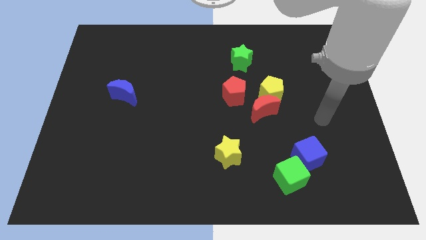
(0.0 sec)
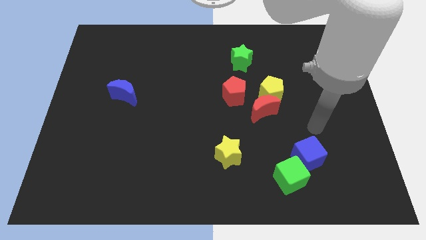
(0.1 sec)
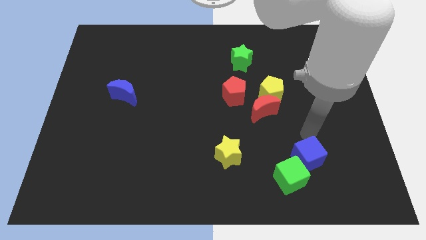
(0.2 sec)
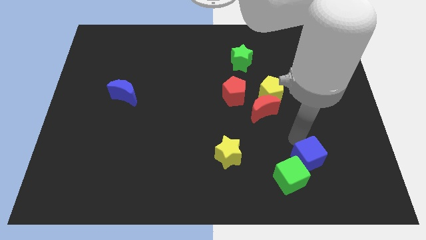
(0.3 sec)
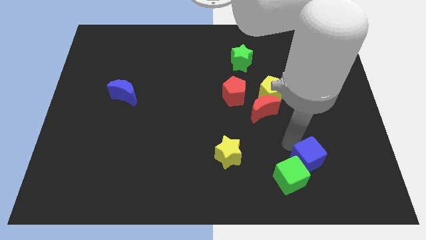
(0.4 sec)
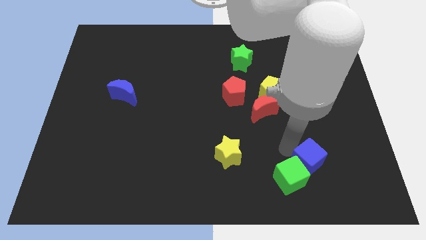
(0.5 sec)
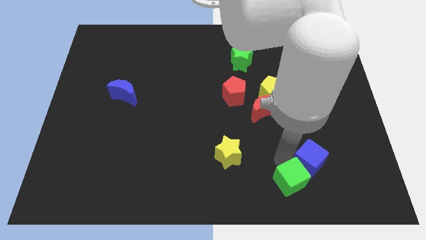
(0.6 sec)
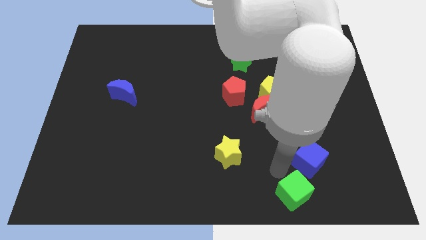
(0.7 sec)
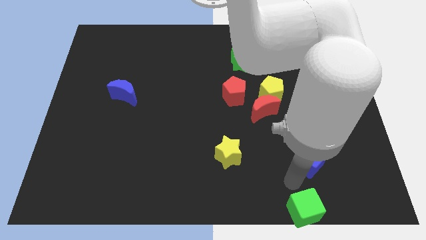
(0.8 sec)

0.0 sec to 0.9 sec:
pull the blue cube apart from the green cube

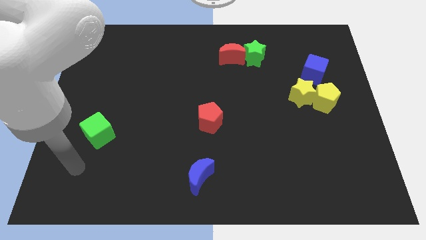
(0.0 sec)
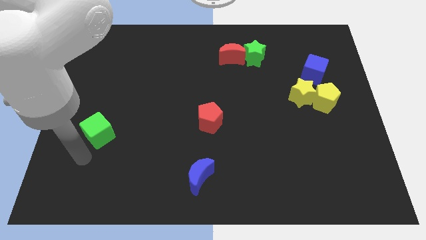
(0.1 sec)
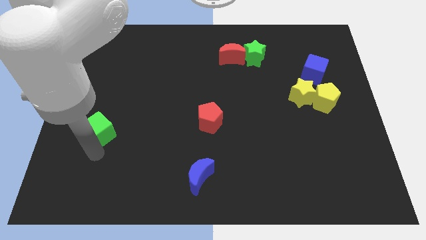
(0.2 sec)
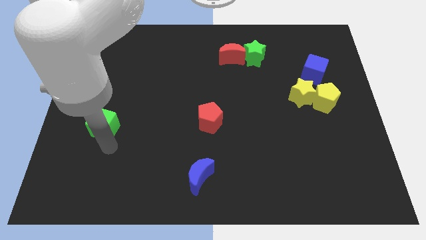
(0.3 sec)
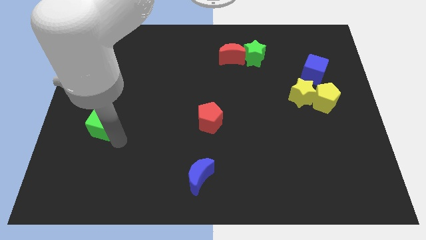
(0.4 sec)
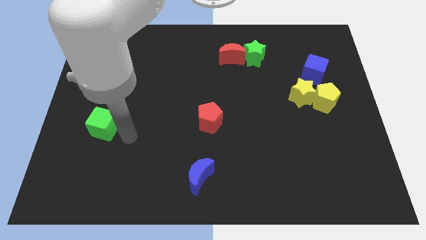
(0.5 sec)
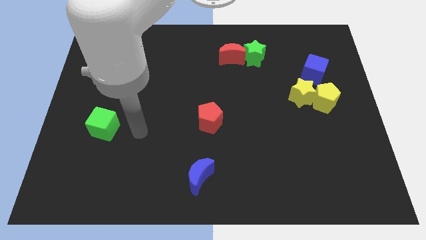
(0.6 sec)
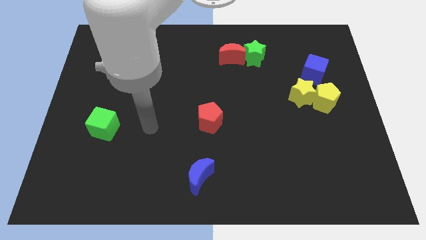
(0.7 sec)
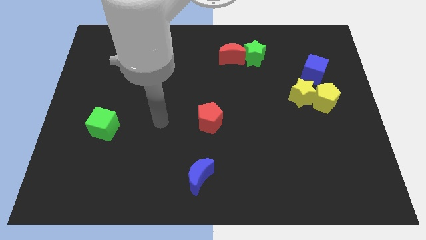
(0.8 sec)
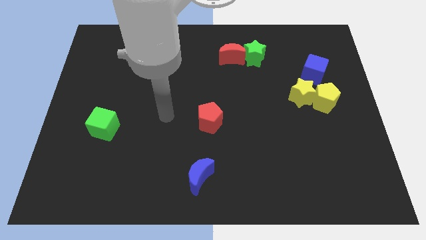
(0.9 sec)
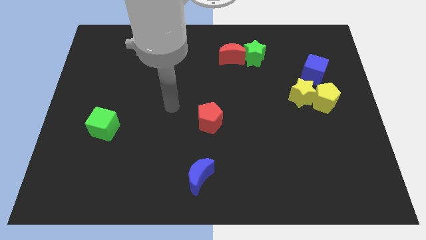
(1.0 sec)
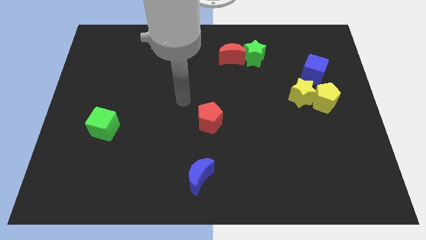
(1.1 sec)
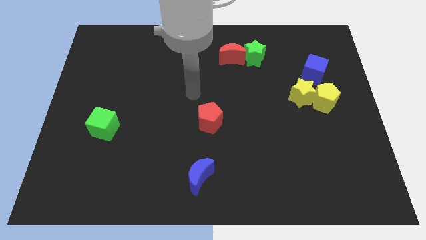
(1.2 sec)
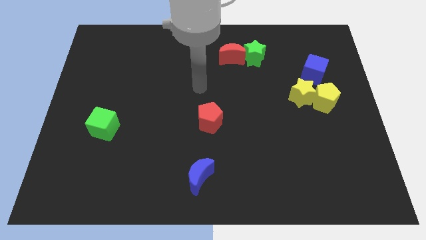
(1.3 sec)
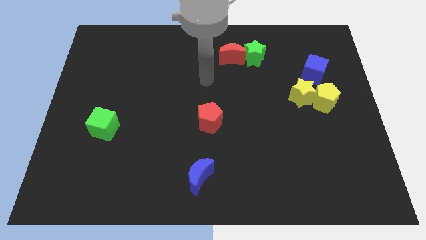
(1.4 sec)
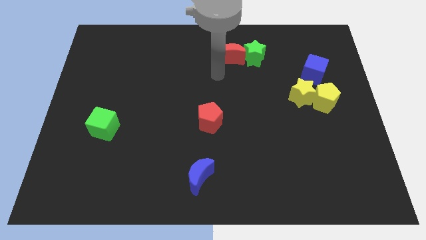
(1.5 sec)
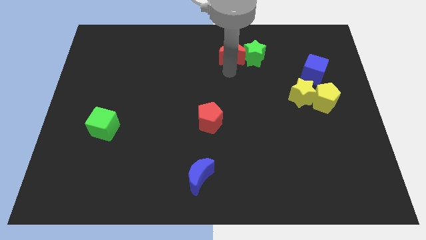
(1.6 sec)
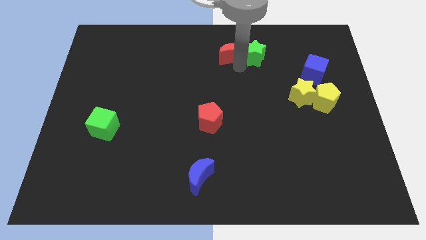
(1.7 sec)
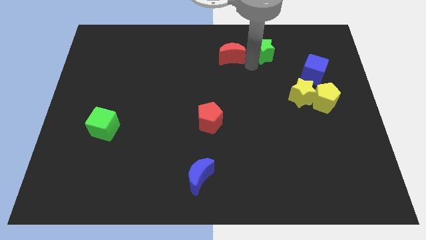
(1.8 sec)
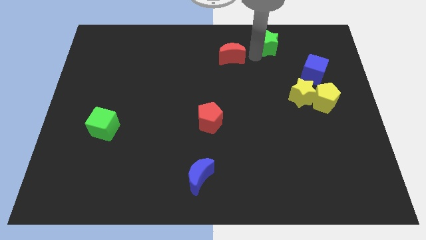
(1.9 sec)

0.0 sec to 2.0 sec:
pull the red moon apart from the green star

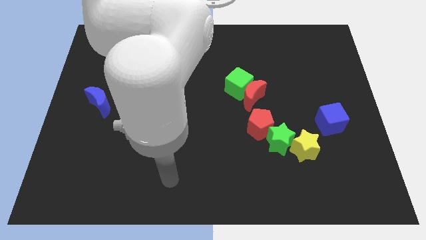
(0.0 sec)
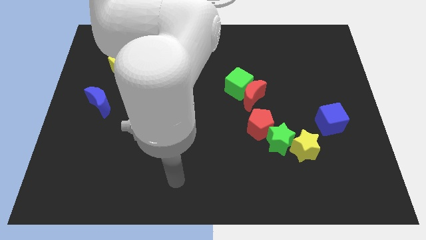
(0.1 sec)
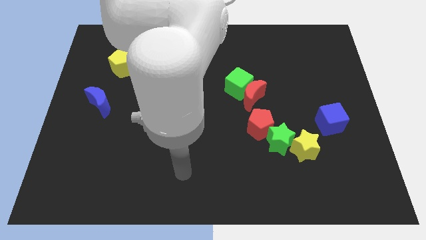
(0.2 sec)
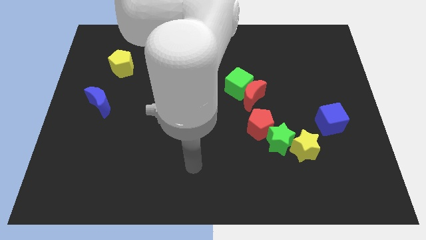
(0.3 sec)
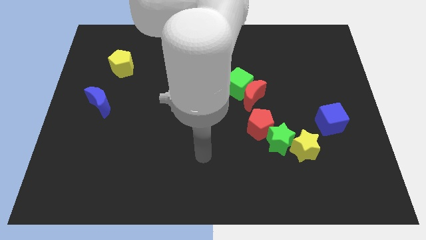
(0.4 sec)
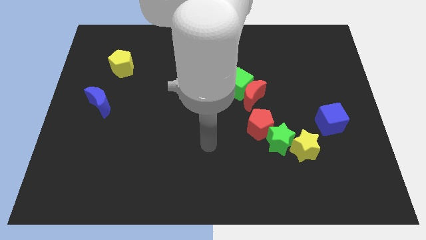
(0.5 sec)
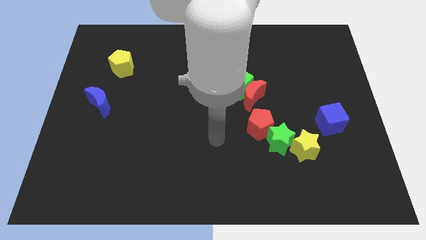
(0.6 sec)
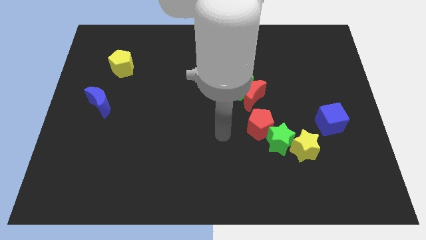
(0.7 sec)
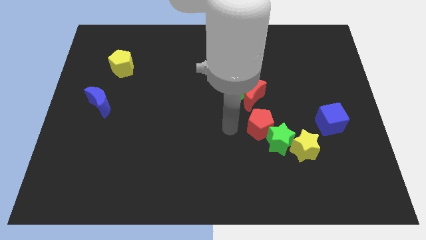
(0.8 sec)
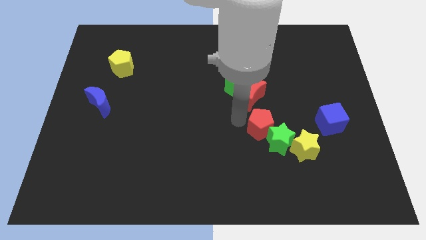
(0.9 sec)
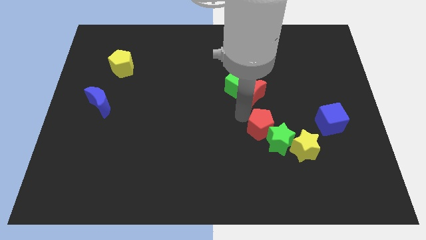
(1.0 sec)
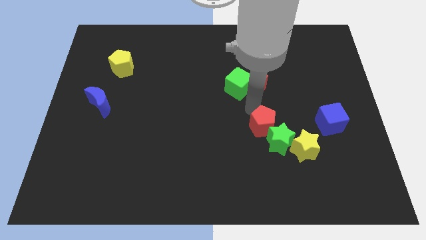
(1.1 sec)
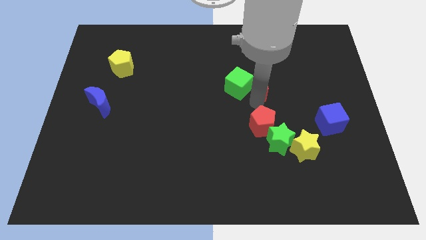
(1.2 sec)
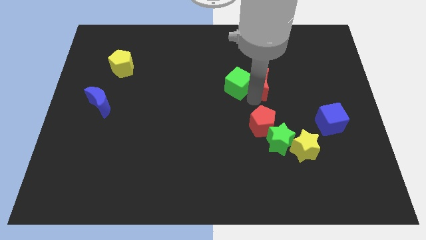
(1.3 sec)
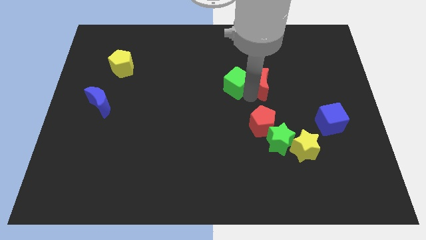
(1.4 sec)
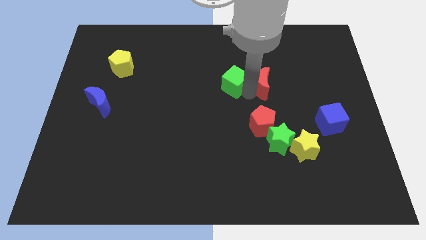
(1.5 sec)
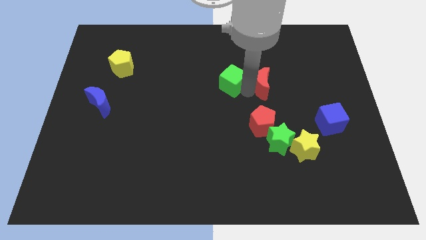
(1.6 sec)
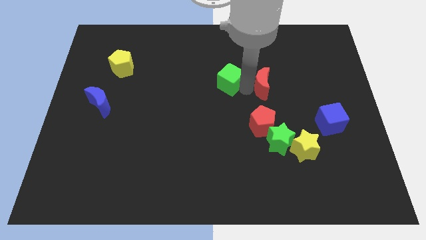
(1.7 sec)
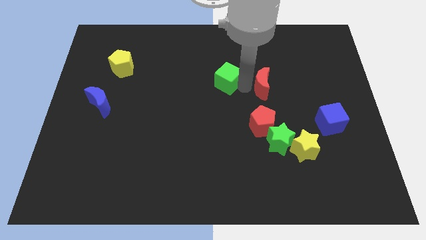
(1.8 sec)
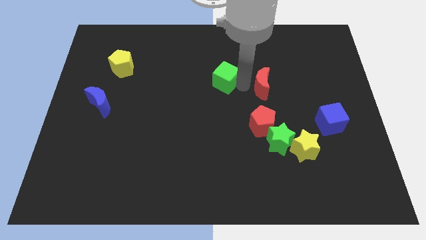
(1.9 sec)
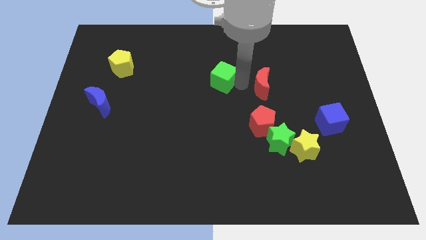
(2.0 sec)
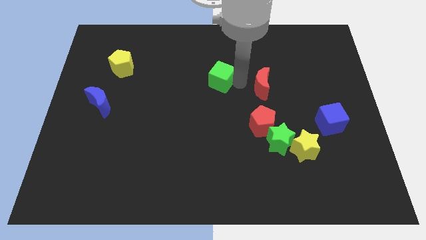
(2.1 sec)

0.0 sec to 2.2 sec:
pull the green cube apart from the red moon

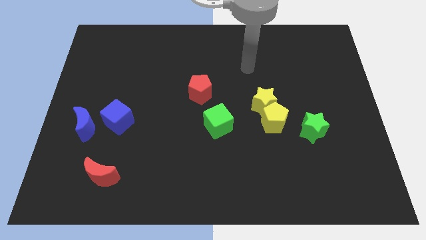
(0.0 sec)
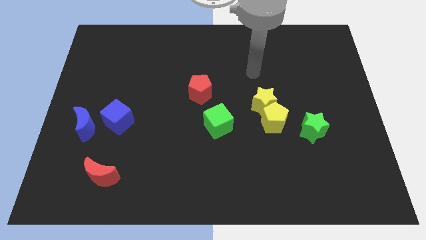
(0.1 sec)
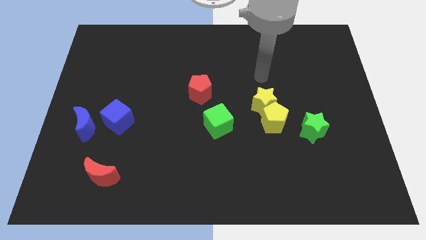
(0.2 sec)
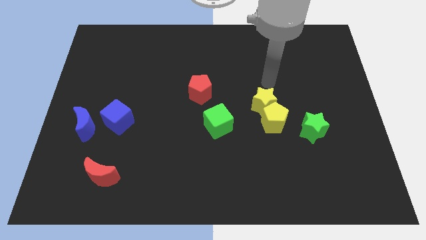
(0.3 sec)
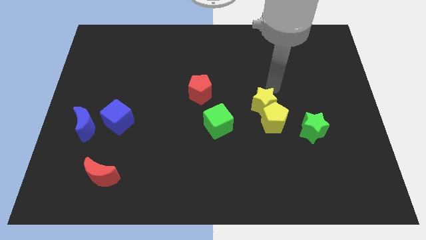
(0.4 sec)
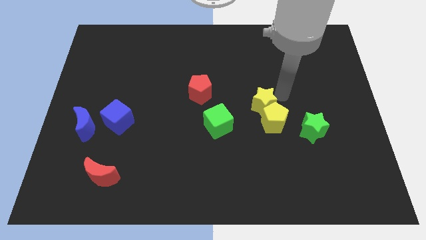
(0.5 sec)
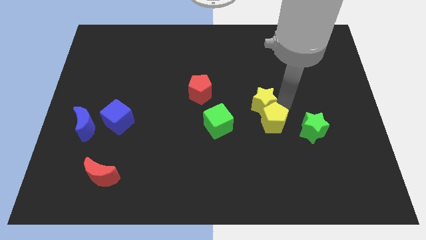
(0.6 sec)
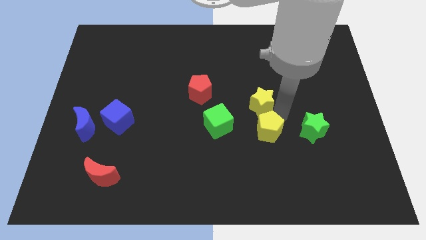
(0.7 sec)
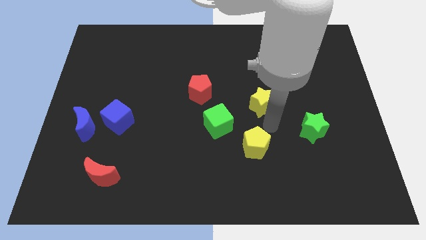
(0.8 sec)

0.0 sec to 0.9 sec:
pull the yellow star apart from the yellow pentagon

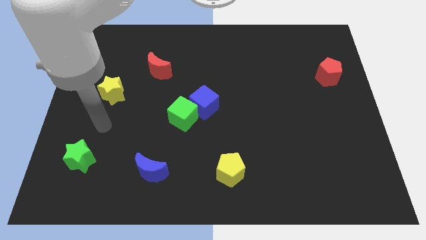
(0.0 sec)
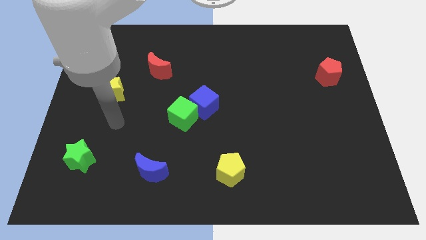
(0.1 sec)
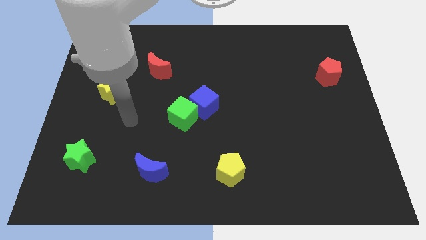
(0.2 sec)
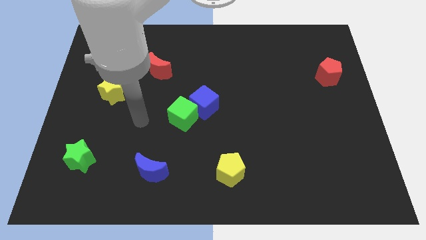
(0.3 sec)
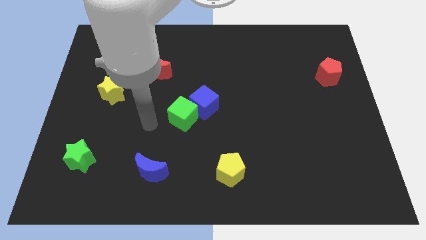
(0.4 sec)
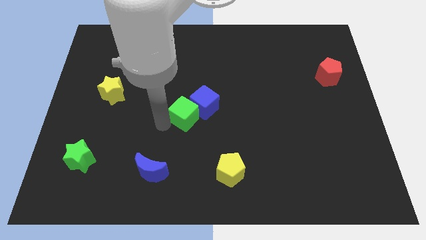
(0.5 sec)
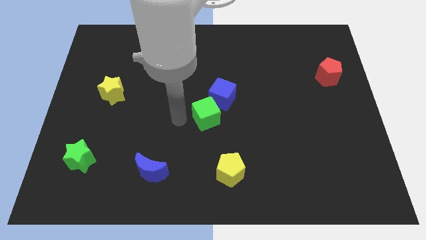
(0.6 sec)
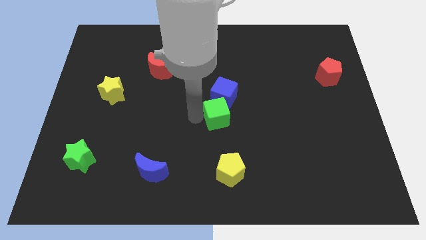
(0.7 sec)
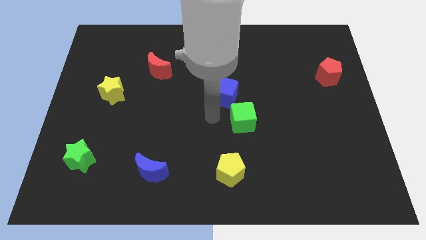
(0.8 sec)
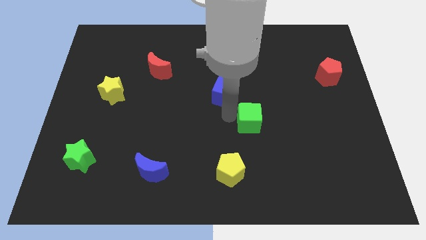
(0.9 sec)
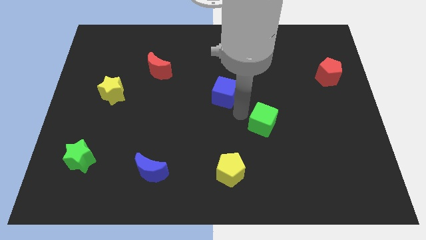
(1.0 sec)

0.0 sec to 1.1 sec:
move the blue cube away from the green cube

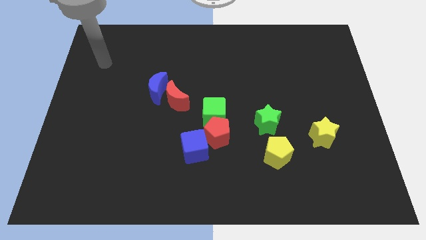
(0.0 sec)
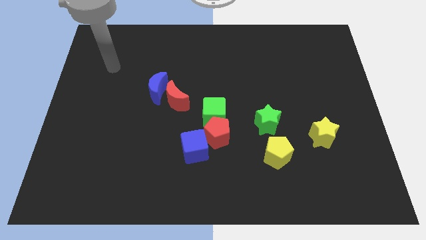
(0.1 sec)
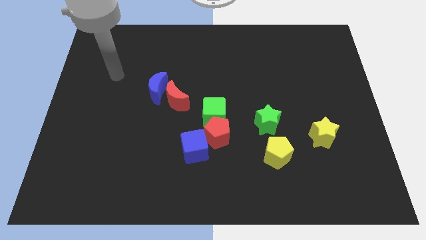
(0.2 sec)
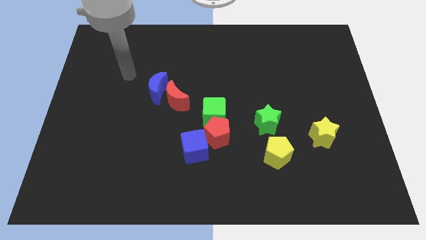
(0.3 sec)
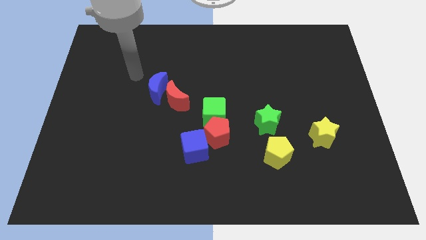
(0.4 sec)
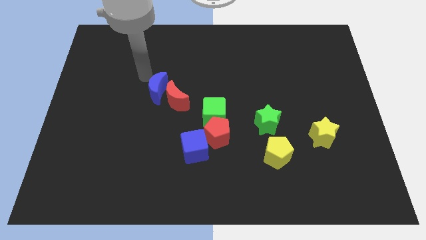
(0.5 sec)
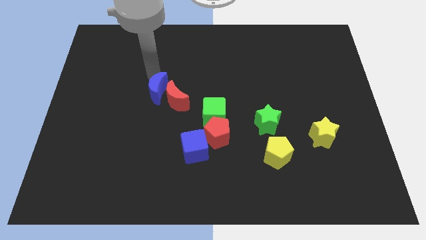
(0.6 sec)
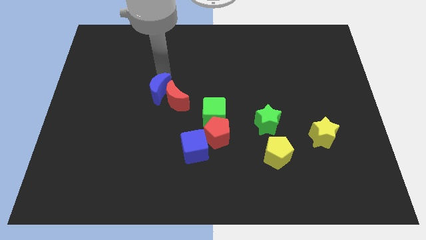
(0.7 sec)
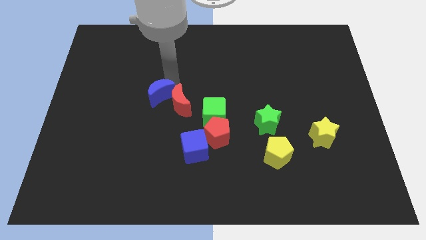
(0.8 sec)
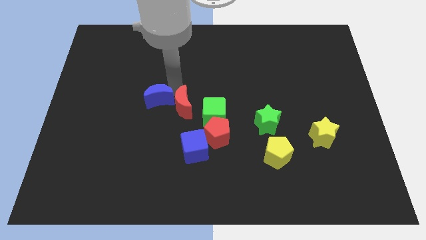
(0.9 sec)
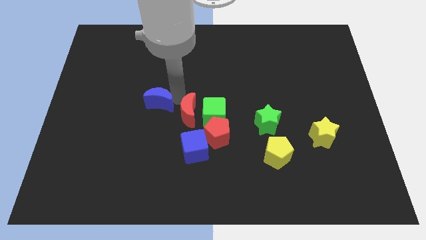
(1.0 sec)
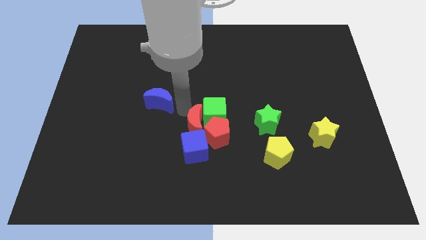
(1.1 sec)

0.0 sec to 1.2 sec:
pull the blue moon apart from the red moon

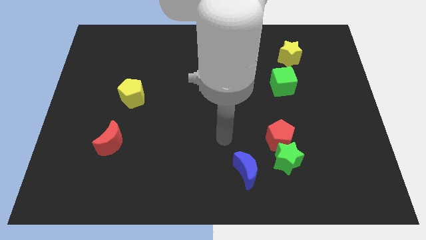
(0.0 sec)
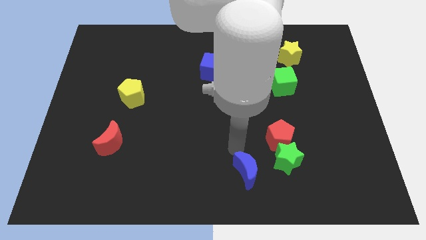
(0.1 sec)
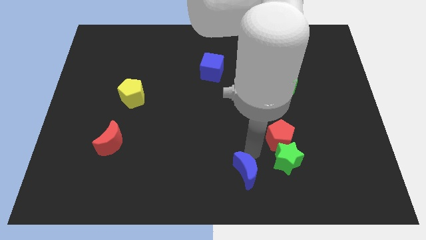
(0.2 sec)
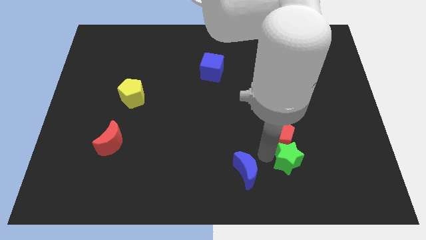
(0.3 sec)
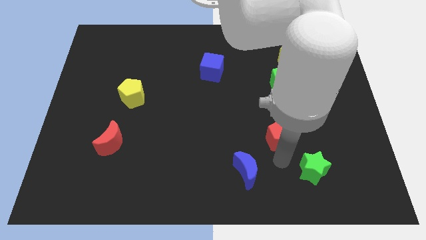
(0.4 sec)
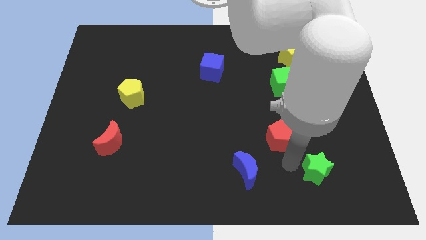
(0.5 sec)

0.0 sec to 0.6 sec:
move the red pentagon away from the green star

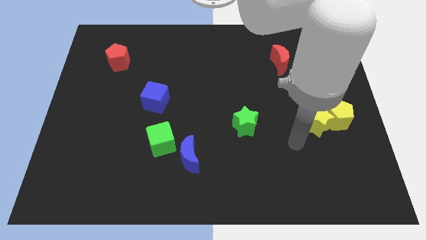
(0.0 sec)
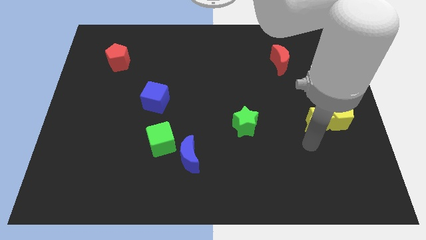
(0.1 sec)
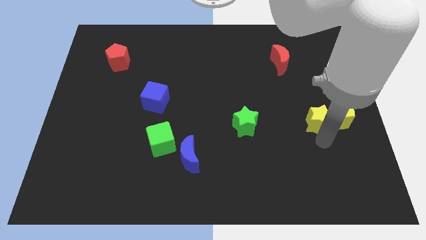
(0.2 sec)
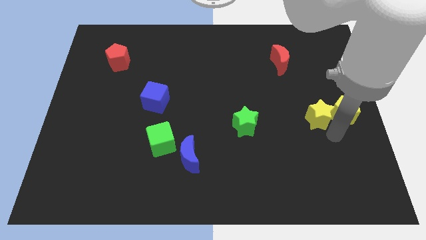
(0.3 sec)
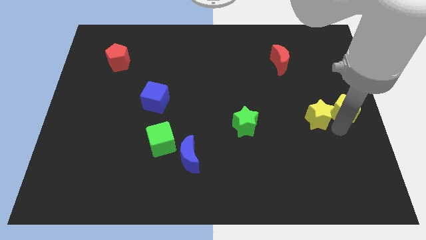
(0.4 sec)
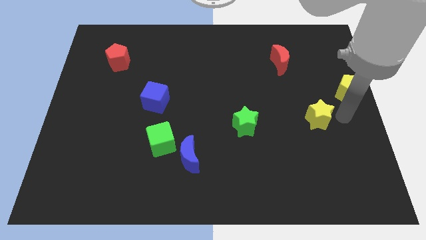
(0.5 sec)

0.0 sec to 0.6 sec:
separate the yellow star from the yellow pentagon
